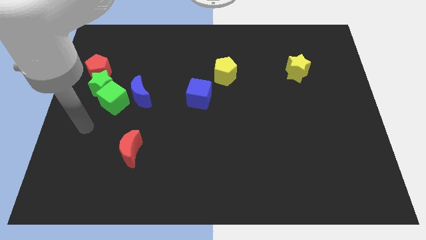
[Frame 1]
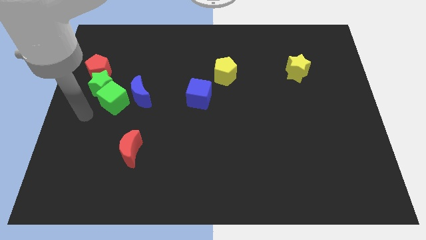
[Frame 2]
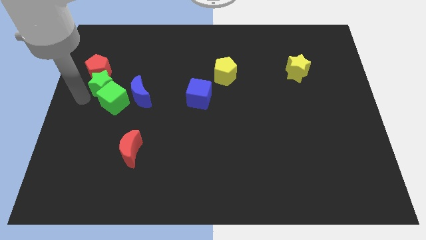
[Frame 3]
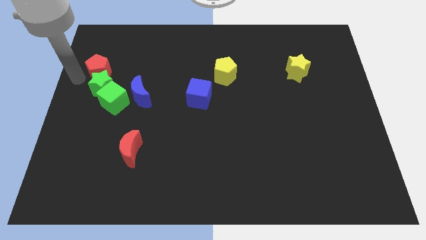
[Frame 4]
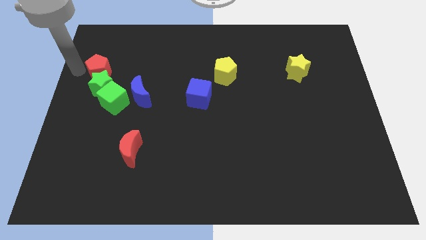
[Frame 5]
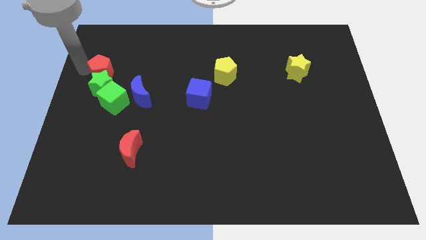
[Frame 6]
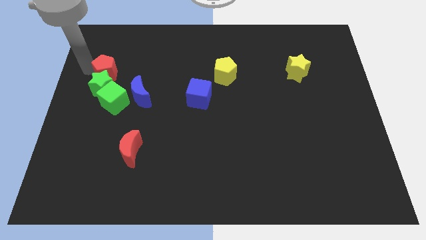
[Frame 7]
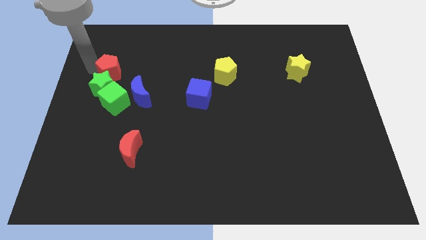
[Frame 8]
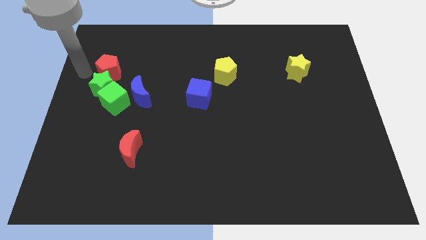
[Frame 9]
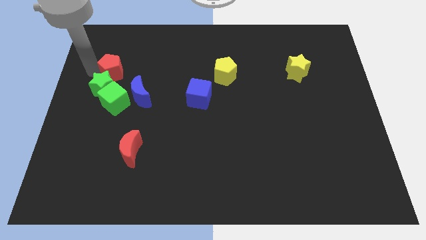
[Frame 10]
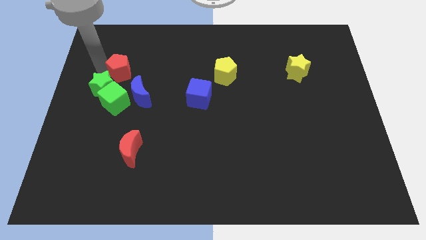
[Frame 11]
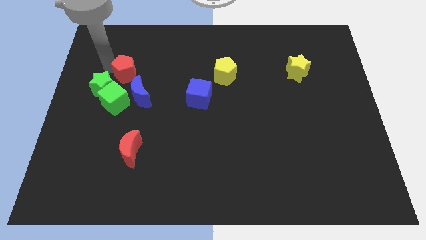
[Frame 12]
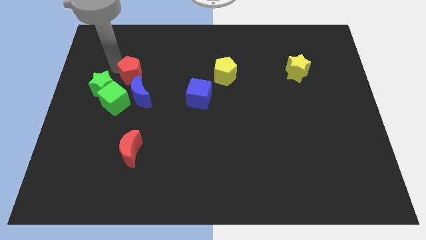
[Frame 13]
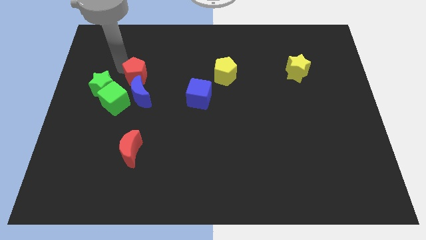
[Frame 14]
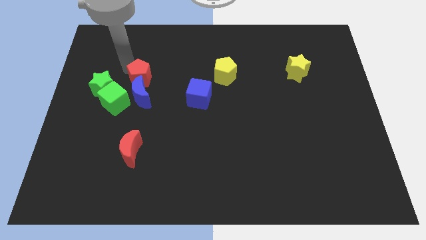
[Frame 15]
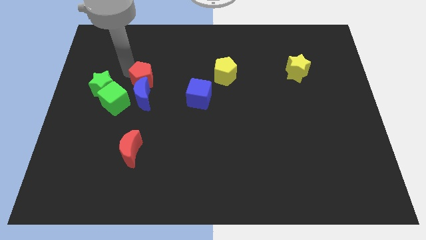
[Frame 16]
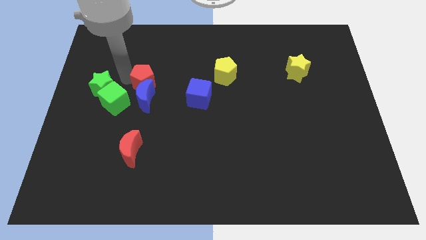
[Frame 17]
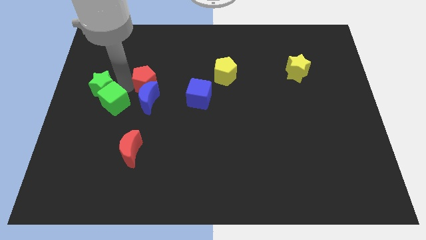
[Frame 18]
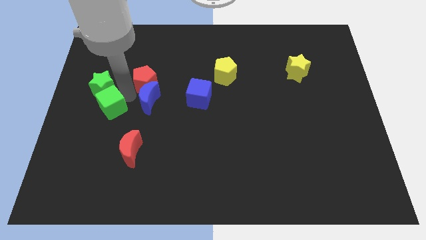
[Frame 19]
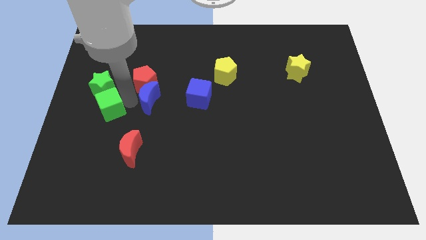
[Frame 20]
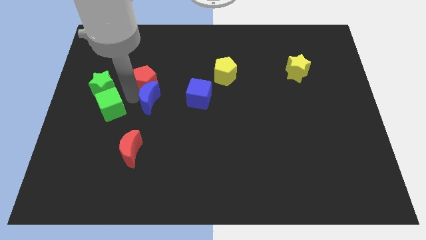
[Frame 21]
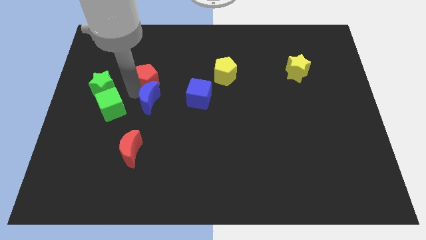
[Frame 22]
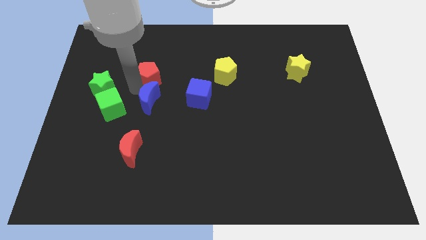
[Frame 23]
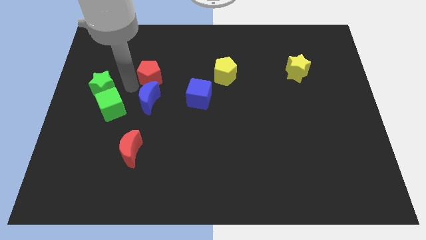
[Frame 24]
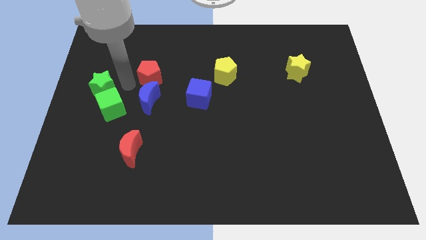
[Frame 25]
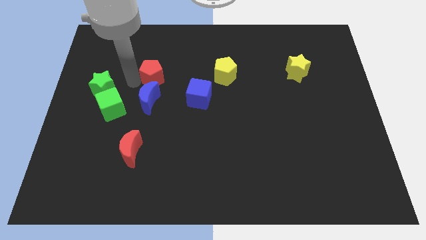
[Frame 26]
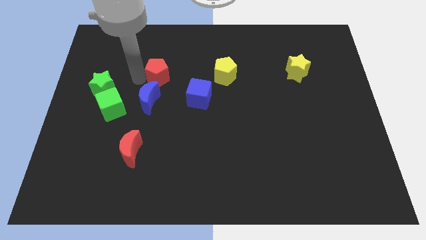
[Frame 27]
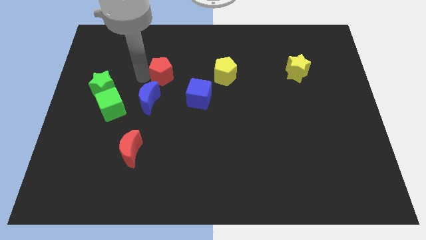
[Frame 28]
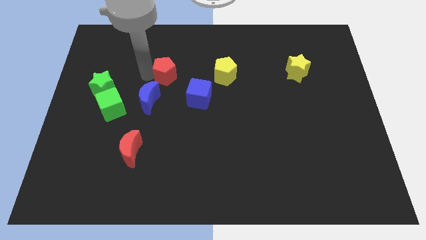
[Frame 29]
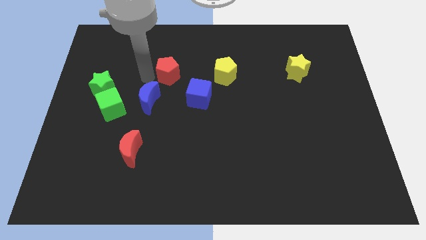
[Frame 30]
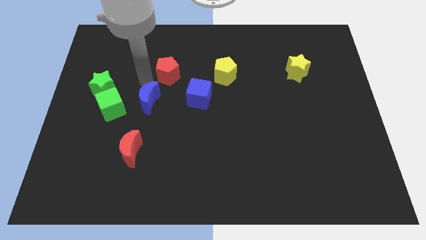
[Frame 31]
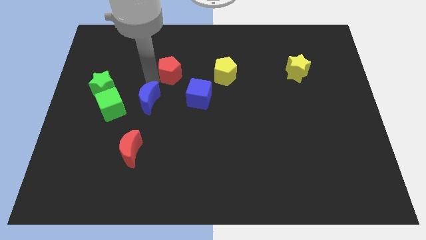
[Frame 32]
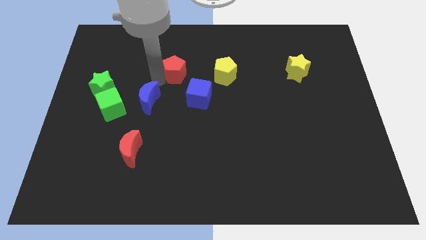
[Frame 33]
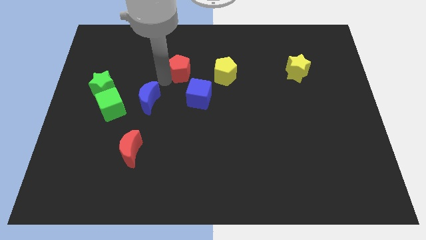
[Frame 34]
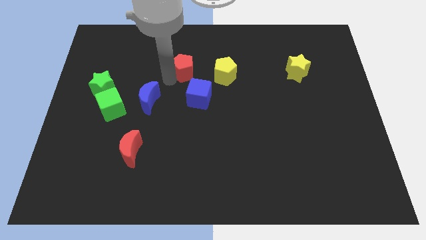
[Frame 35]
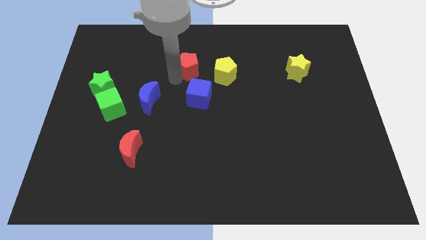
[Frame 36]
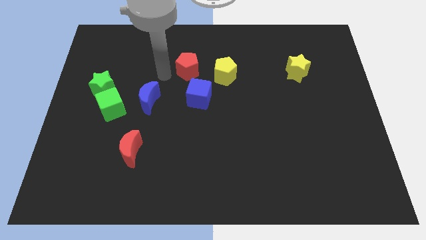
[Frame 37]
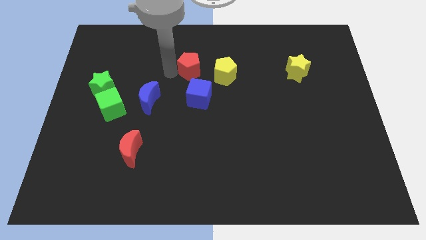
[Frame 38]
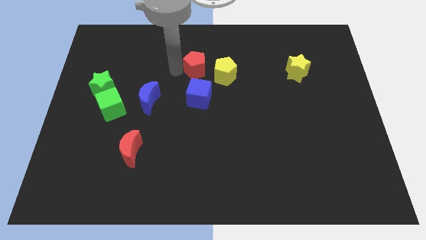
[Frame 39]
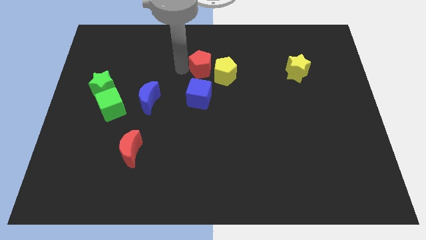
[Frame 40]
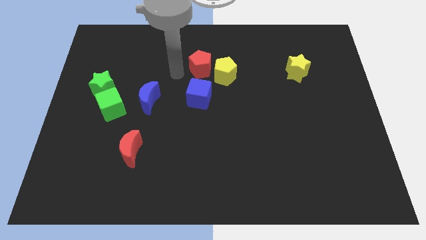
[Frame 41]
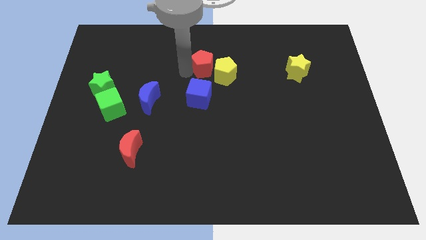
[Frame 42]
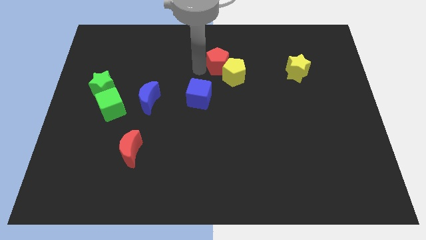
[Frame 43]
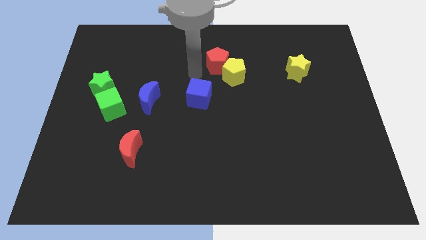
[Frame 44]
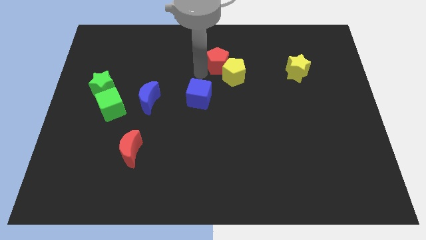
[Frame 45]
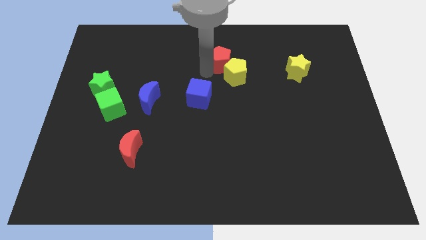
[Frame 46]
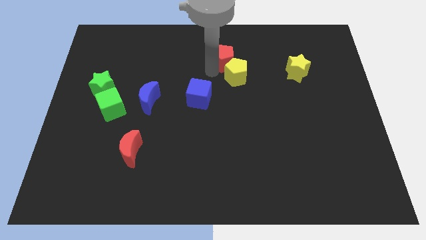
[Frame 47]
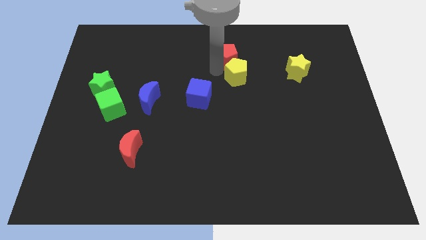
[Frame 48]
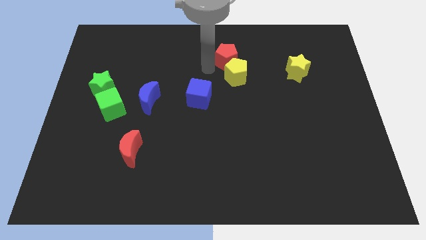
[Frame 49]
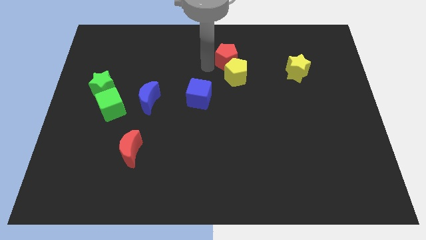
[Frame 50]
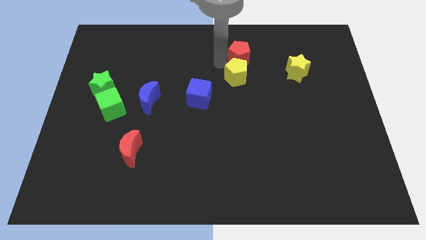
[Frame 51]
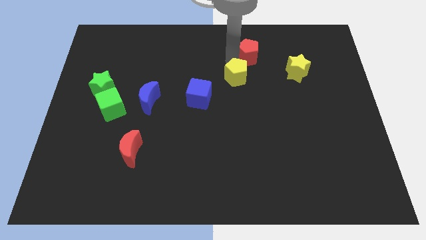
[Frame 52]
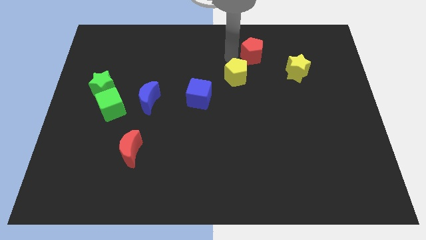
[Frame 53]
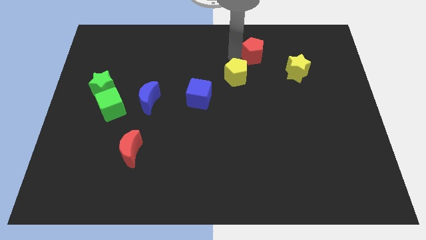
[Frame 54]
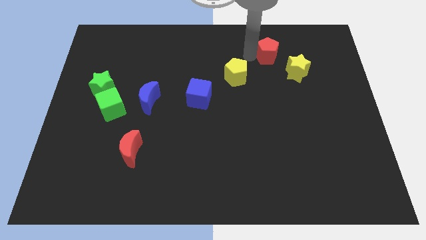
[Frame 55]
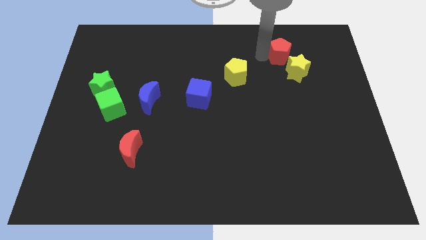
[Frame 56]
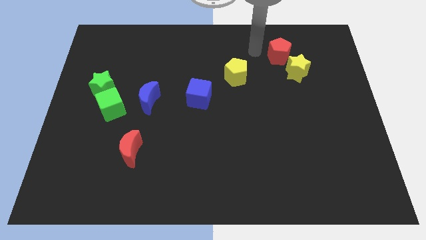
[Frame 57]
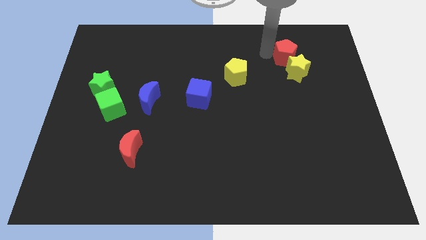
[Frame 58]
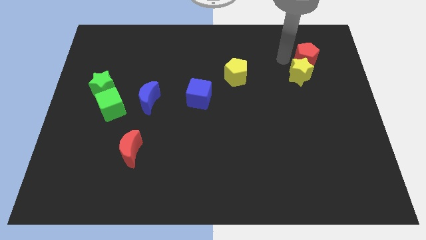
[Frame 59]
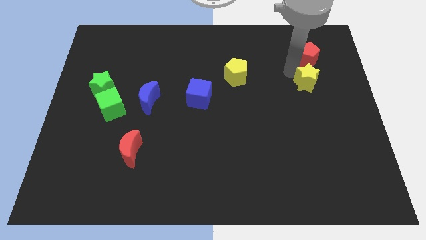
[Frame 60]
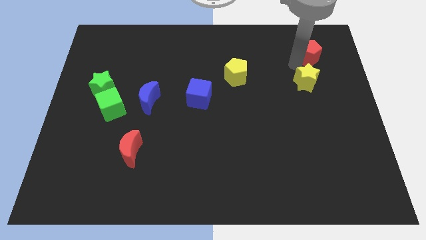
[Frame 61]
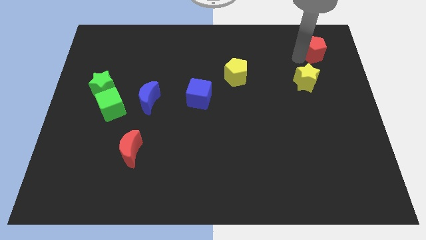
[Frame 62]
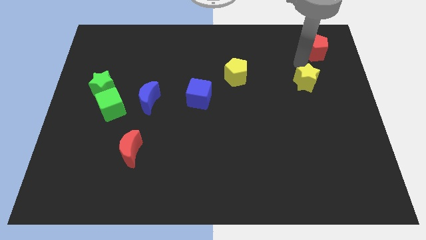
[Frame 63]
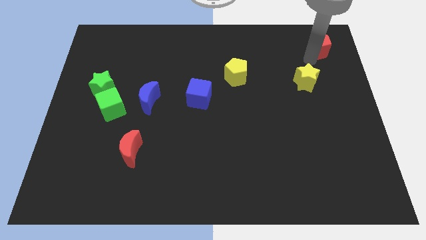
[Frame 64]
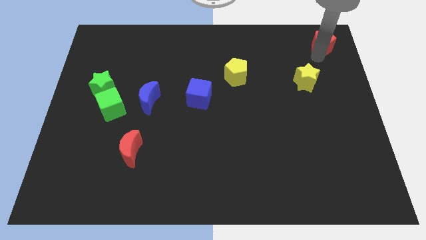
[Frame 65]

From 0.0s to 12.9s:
slide the red pentagon to the top right of the board
